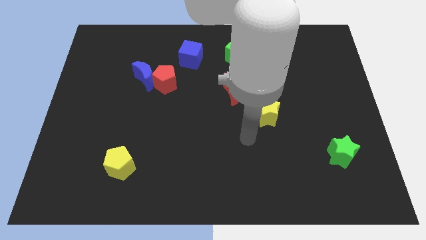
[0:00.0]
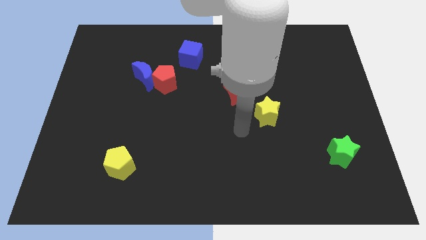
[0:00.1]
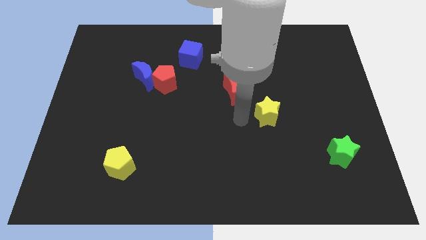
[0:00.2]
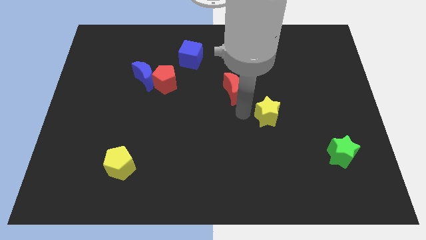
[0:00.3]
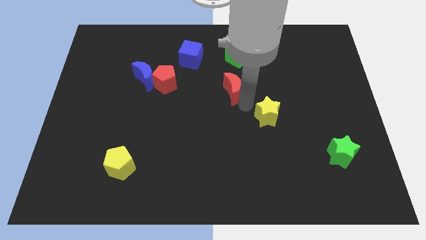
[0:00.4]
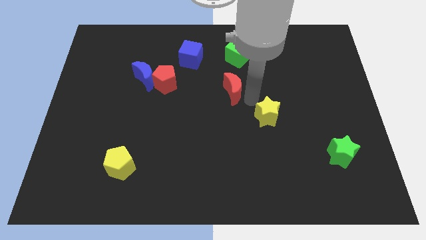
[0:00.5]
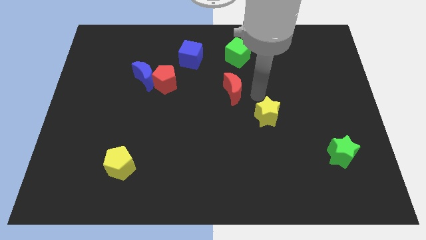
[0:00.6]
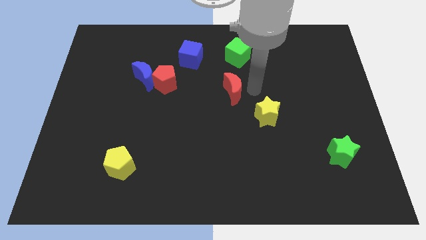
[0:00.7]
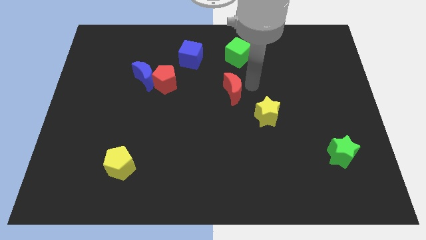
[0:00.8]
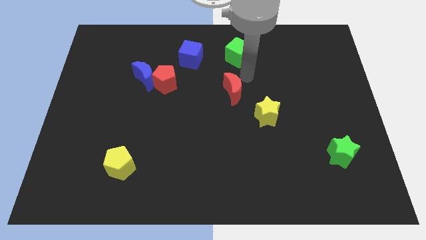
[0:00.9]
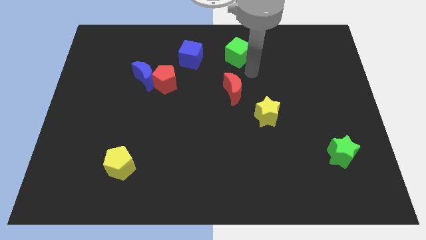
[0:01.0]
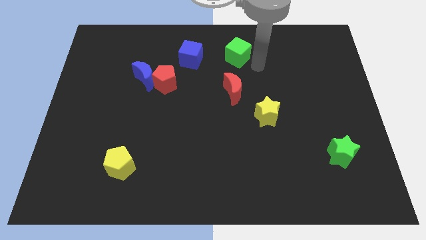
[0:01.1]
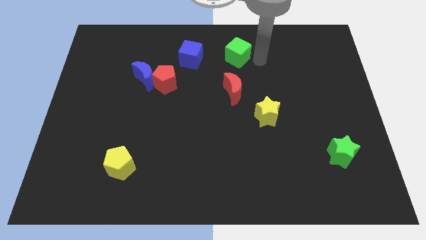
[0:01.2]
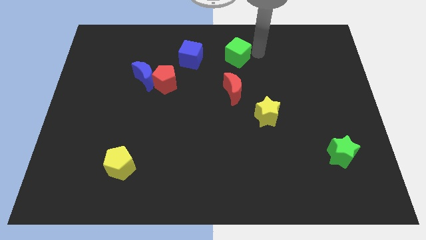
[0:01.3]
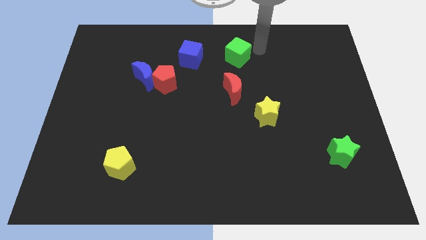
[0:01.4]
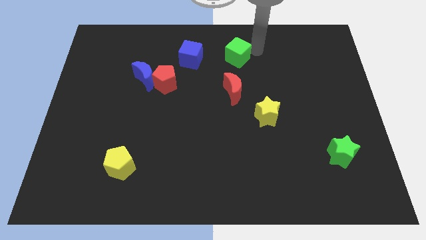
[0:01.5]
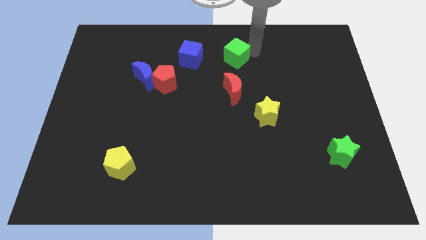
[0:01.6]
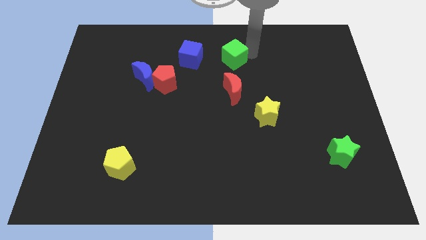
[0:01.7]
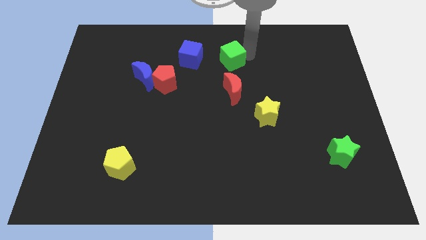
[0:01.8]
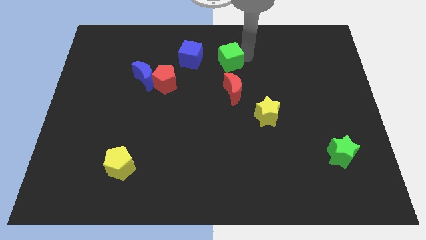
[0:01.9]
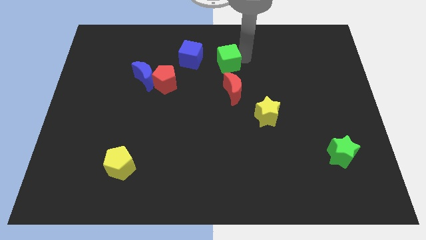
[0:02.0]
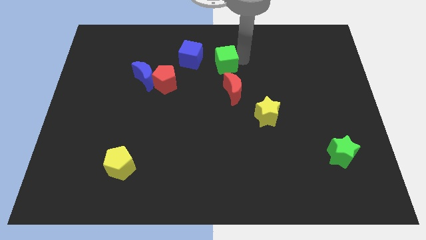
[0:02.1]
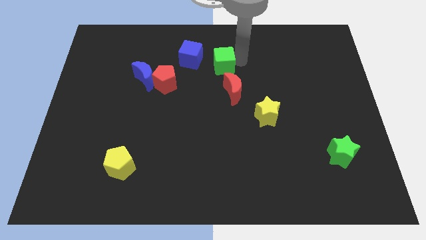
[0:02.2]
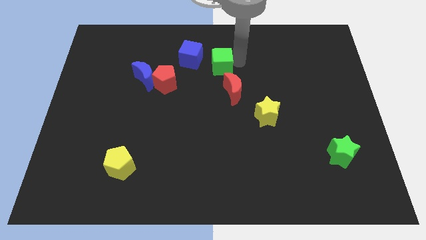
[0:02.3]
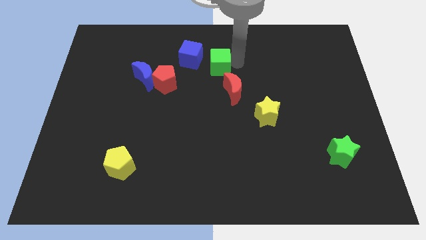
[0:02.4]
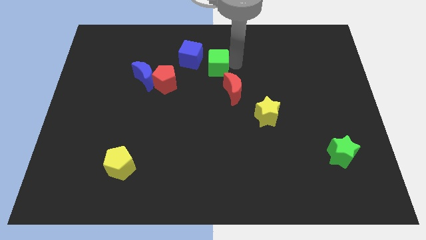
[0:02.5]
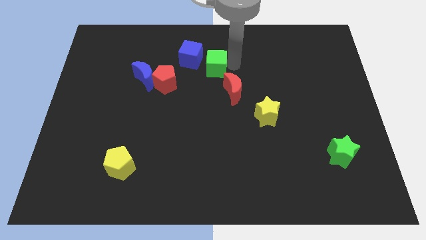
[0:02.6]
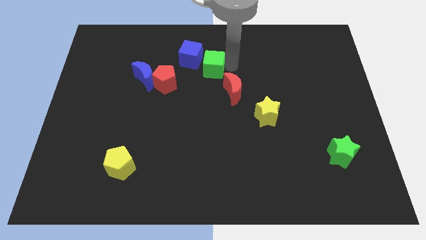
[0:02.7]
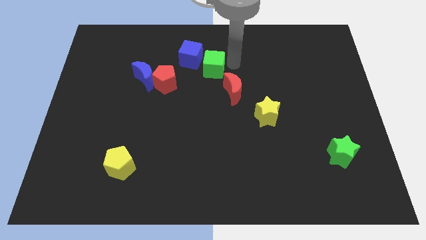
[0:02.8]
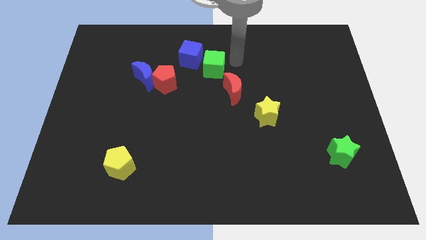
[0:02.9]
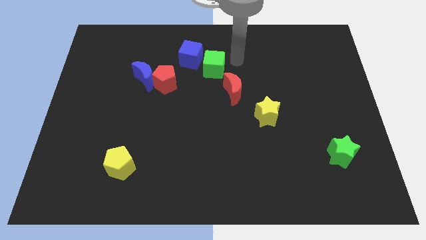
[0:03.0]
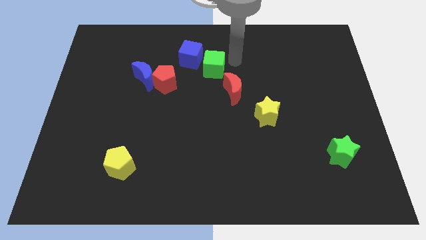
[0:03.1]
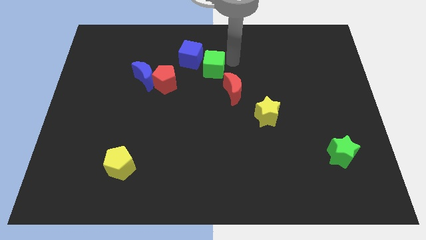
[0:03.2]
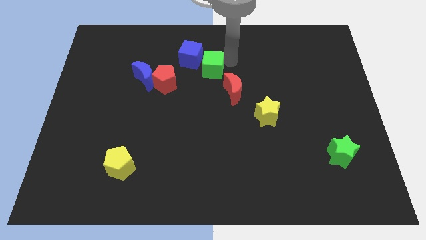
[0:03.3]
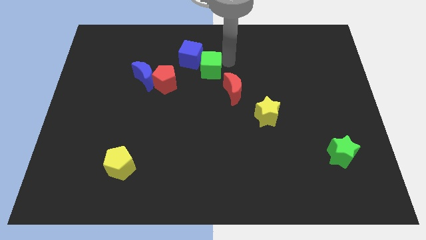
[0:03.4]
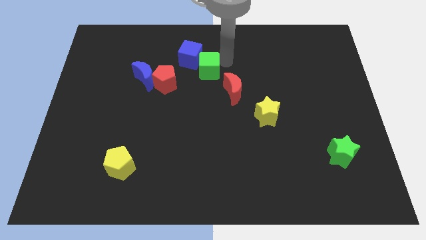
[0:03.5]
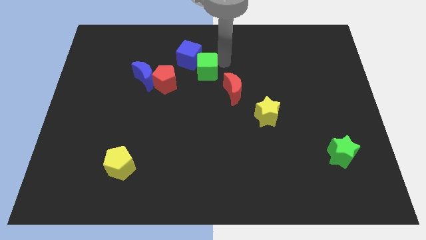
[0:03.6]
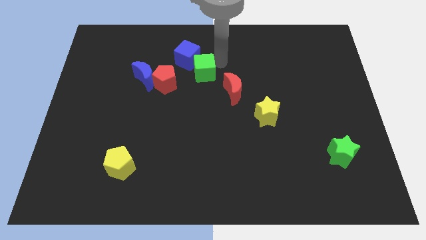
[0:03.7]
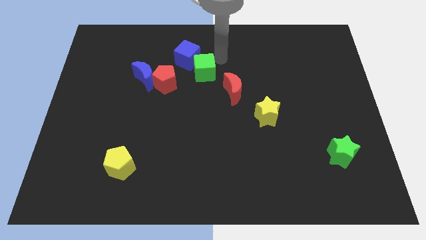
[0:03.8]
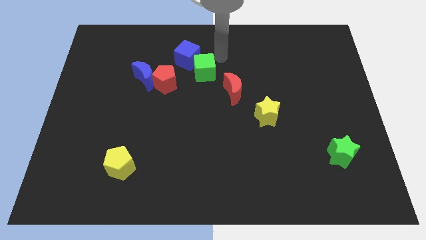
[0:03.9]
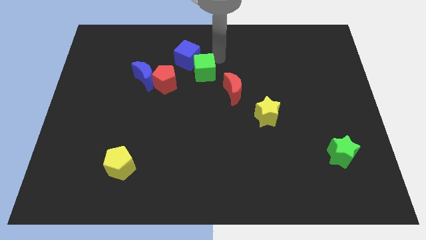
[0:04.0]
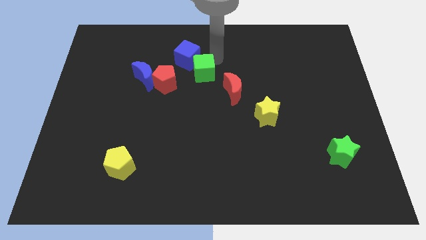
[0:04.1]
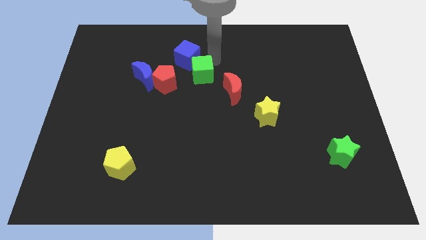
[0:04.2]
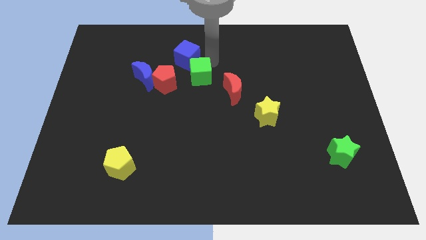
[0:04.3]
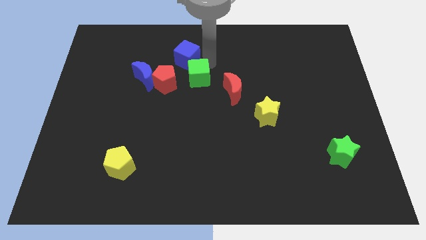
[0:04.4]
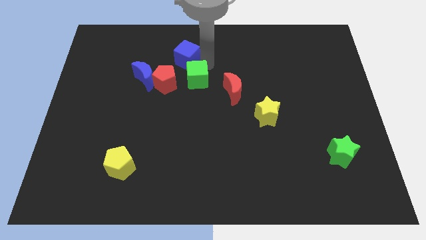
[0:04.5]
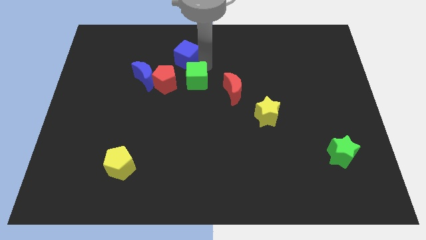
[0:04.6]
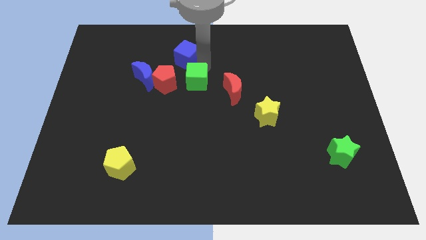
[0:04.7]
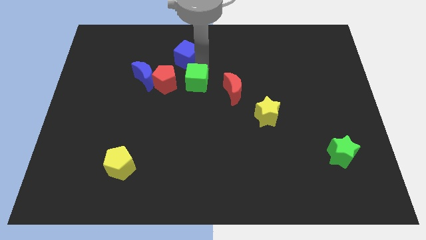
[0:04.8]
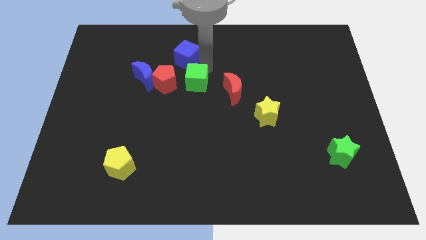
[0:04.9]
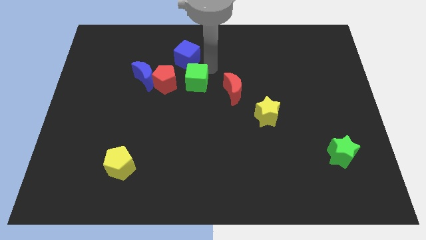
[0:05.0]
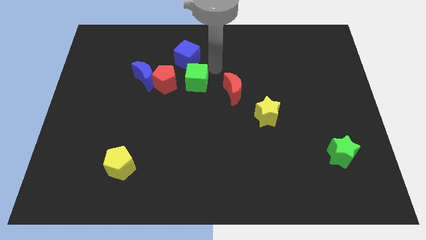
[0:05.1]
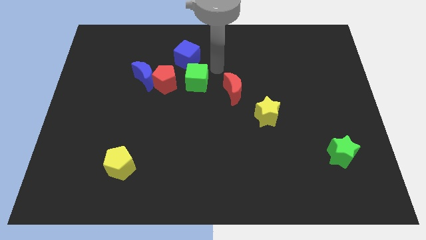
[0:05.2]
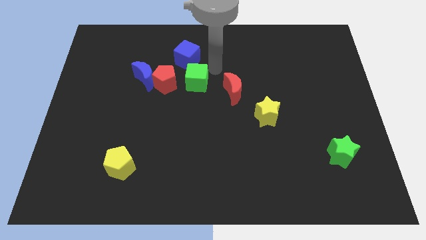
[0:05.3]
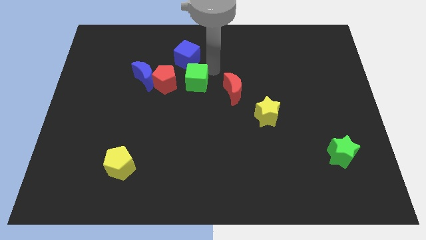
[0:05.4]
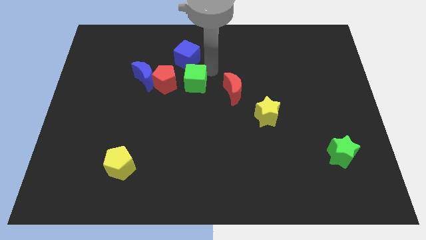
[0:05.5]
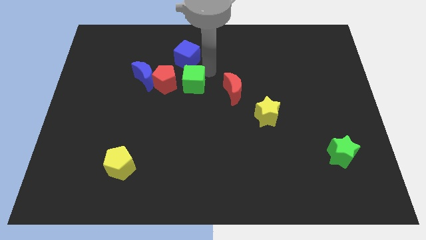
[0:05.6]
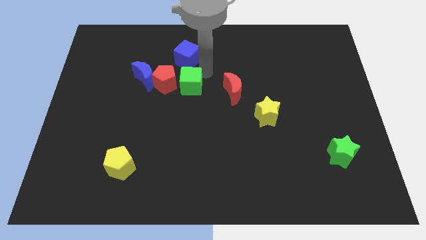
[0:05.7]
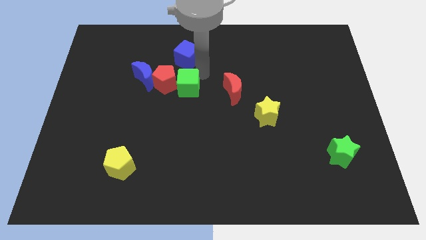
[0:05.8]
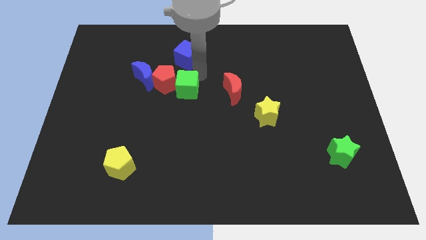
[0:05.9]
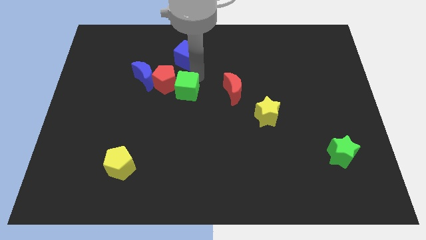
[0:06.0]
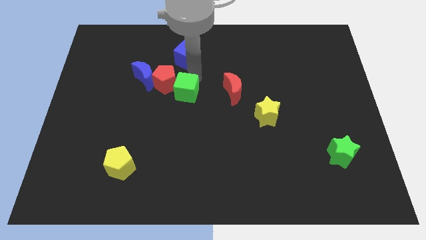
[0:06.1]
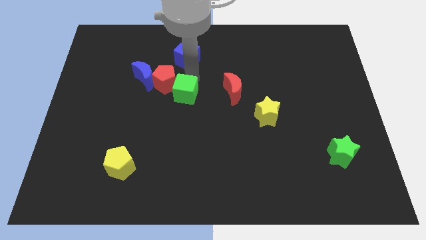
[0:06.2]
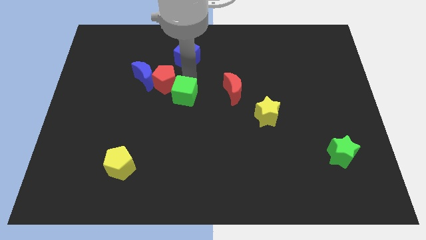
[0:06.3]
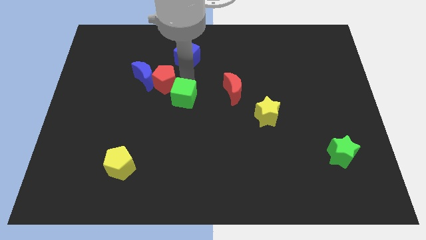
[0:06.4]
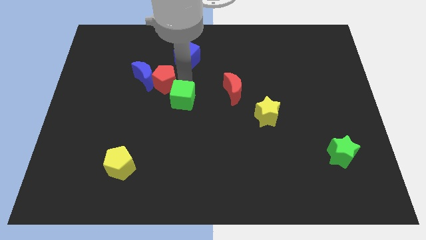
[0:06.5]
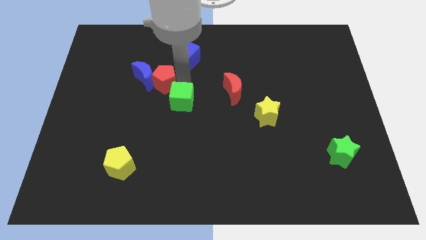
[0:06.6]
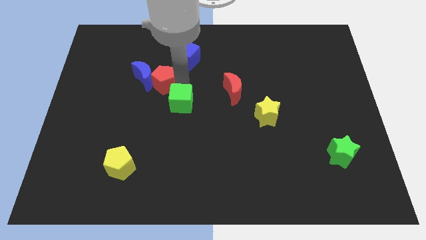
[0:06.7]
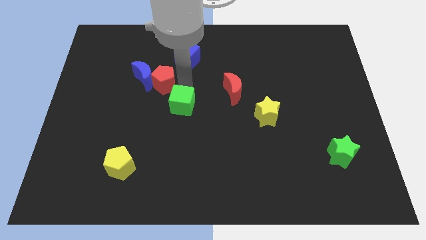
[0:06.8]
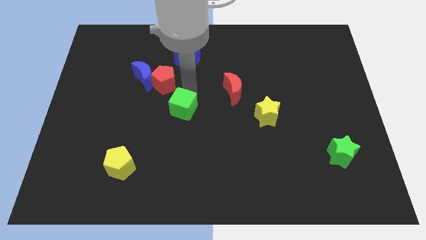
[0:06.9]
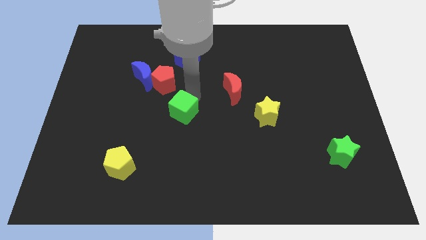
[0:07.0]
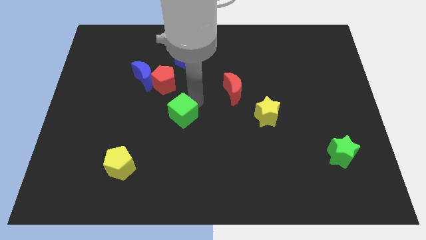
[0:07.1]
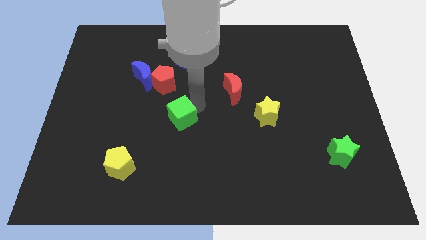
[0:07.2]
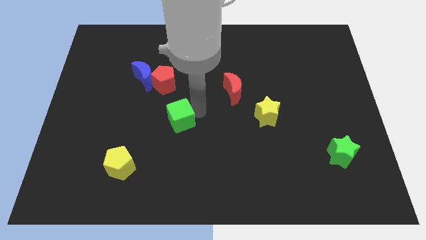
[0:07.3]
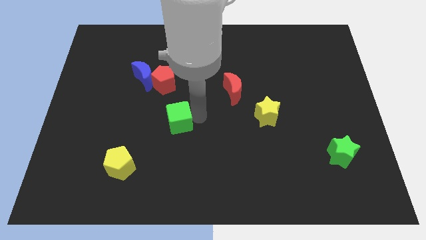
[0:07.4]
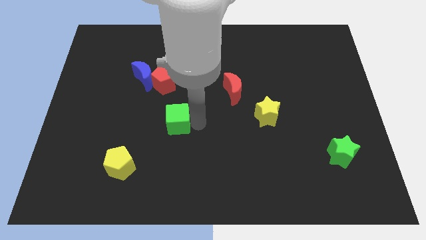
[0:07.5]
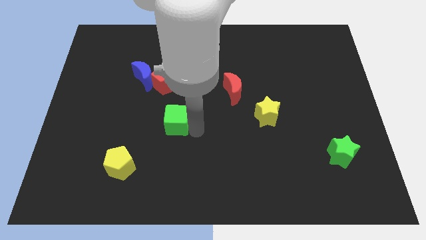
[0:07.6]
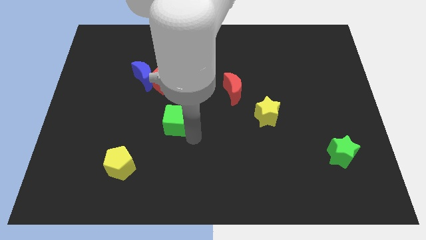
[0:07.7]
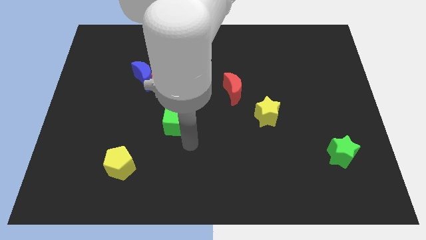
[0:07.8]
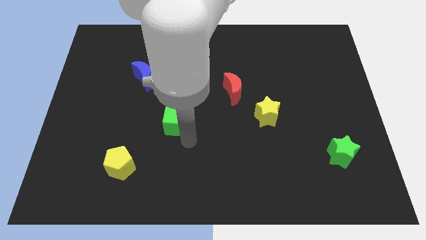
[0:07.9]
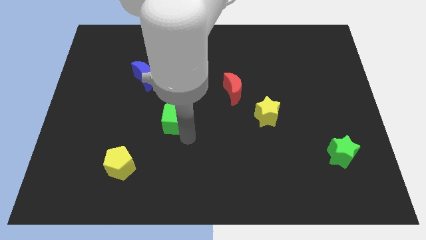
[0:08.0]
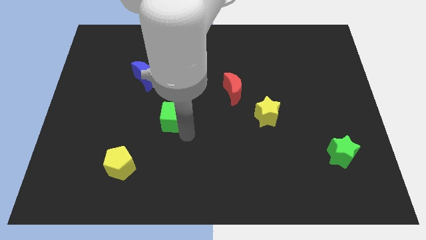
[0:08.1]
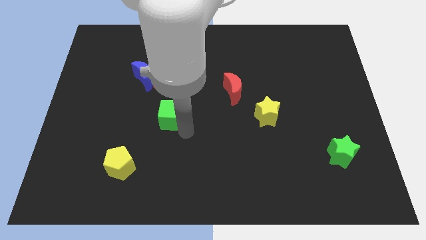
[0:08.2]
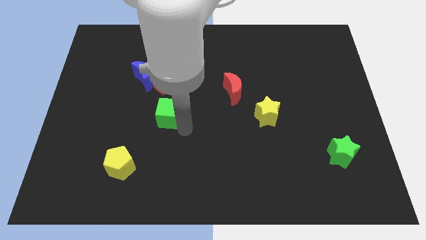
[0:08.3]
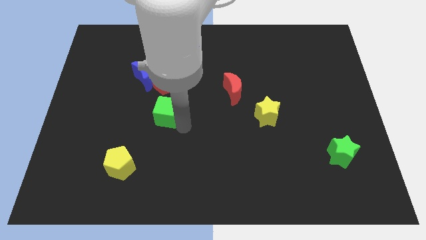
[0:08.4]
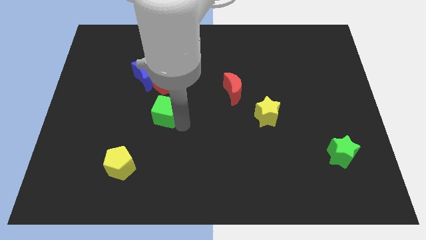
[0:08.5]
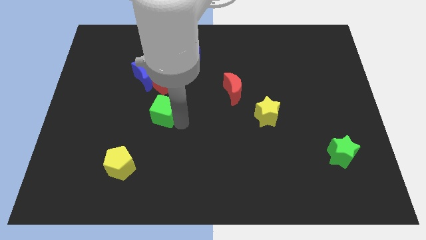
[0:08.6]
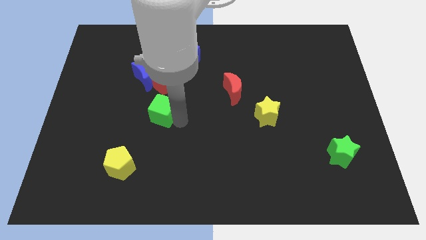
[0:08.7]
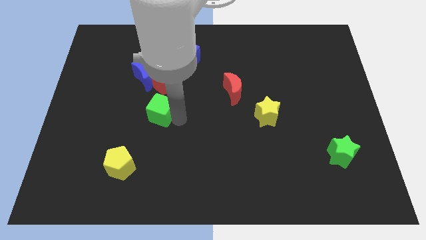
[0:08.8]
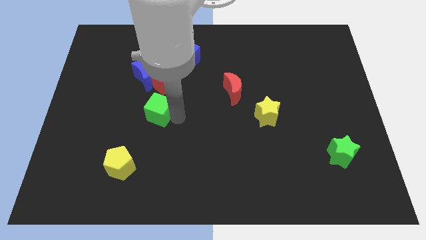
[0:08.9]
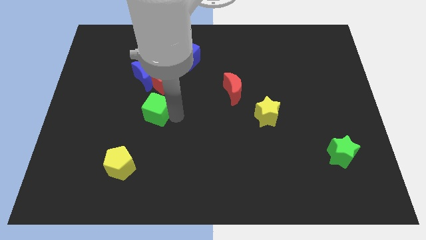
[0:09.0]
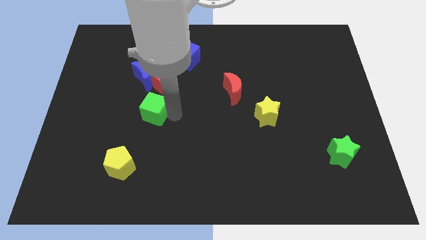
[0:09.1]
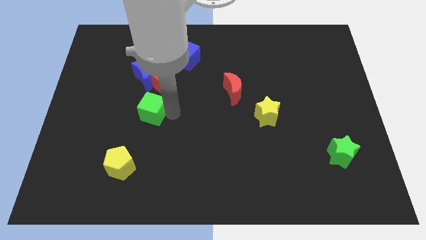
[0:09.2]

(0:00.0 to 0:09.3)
push the green cube to the bottom left of the red pentagon
